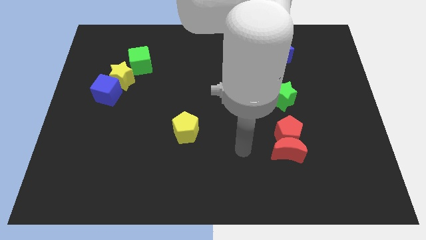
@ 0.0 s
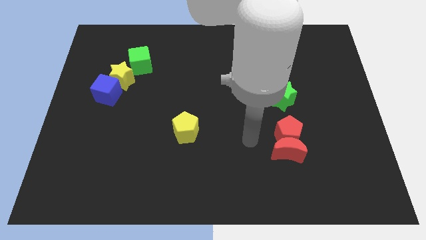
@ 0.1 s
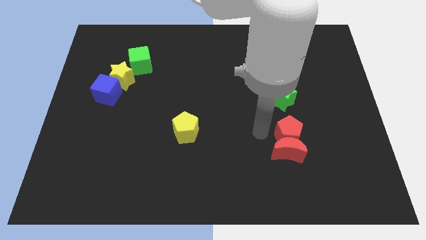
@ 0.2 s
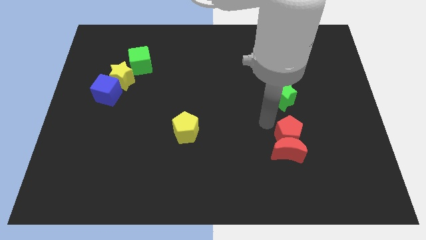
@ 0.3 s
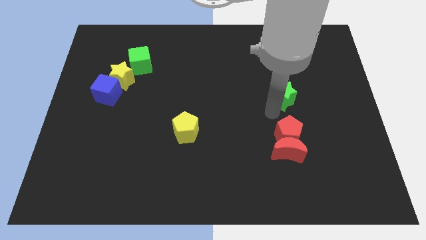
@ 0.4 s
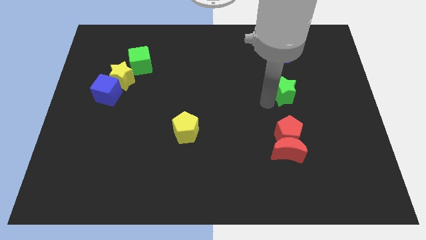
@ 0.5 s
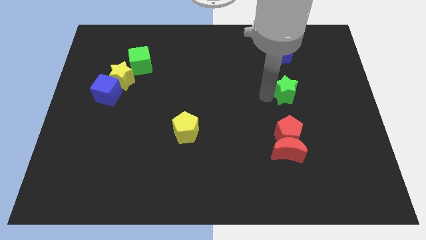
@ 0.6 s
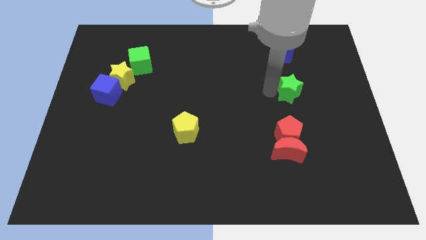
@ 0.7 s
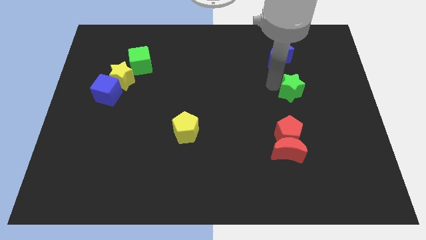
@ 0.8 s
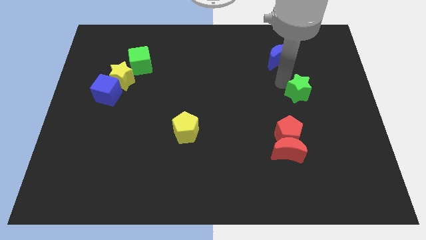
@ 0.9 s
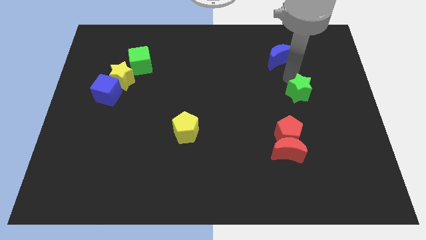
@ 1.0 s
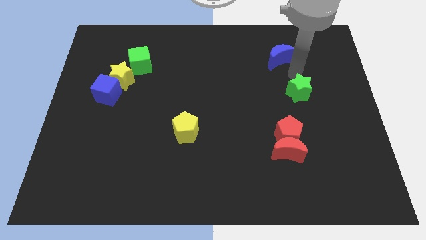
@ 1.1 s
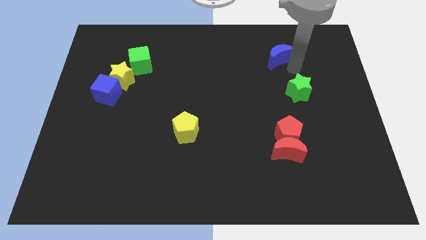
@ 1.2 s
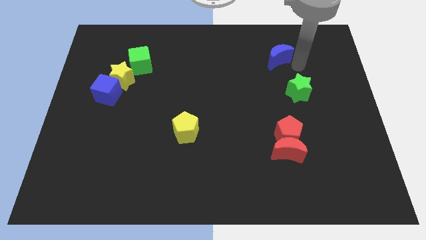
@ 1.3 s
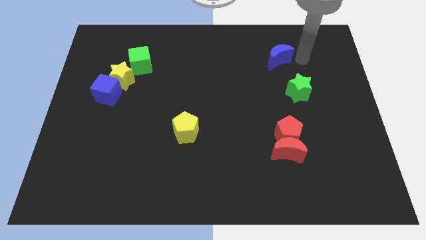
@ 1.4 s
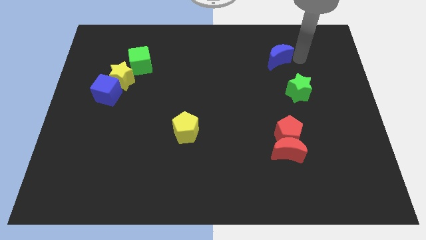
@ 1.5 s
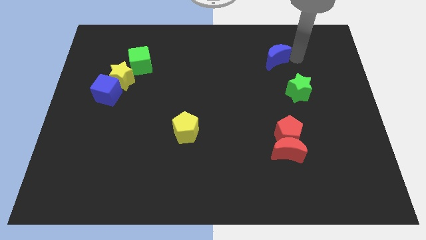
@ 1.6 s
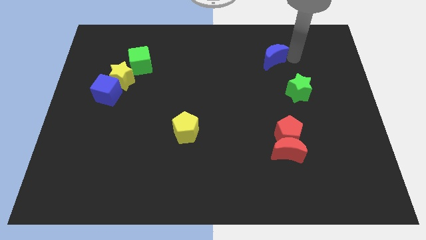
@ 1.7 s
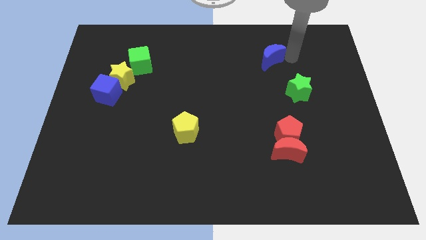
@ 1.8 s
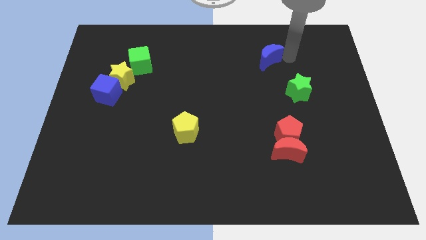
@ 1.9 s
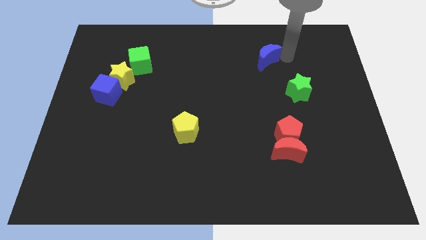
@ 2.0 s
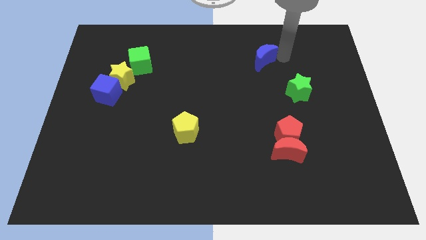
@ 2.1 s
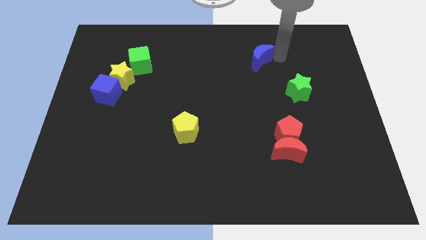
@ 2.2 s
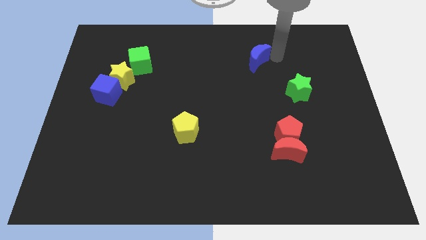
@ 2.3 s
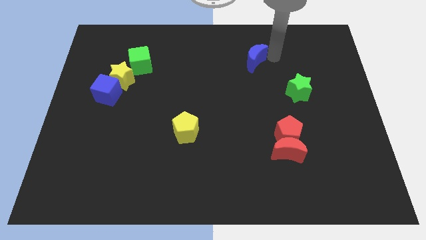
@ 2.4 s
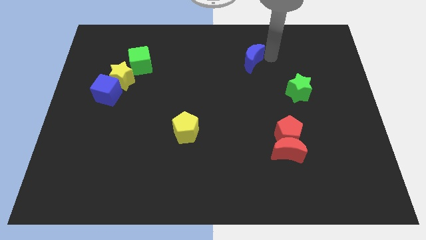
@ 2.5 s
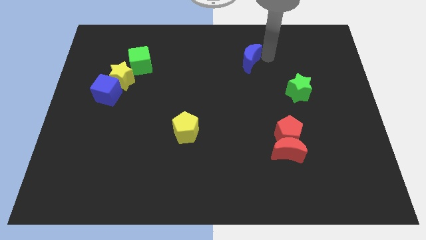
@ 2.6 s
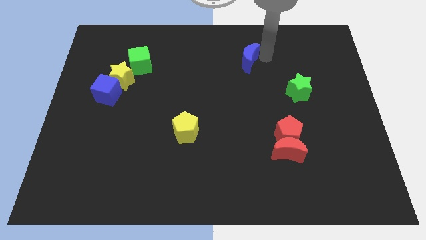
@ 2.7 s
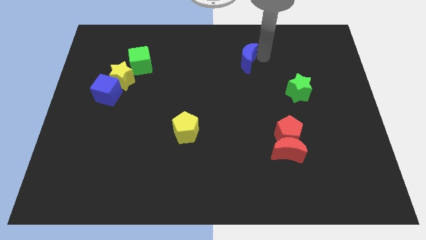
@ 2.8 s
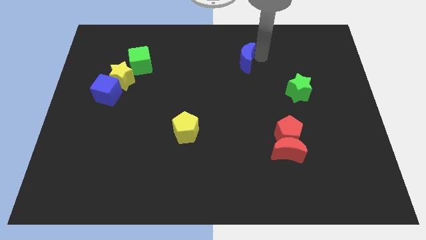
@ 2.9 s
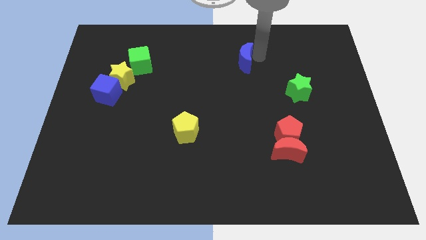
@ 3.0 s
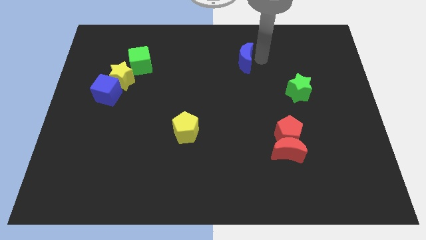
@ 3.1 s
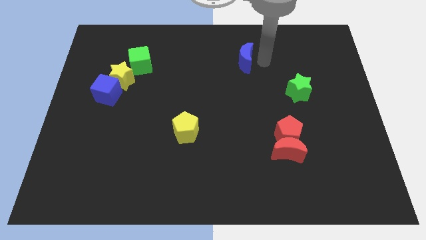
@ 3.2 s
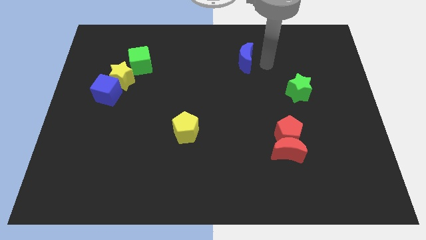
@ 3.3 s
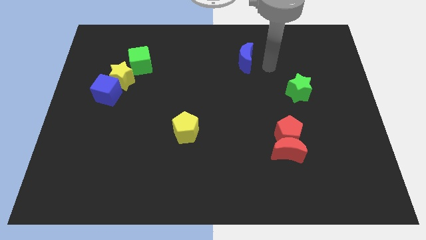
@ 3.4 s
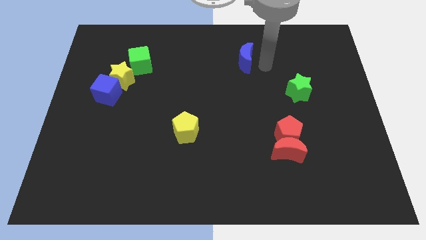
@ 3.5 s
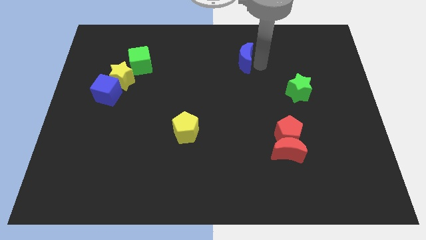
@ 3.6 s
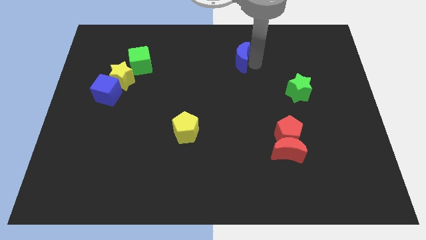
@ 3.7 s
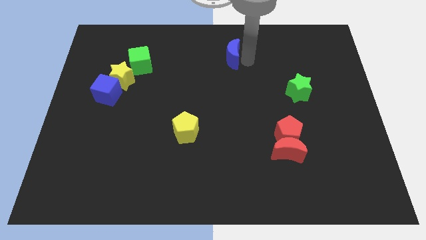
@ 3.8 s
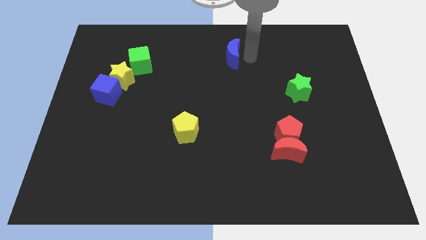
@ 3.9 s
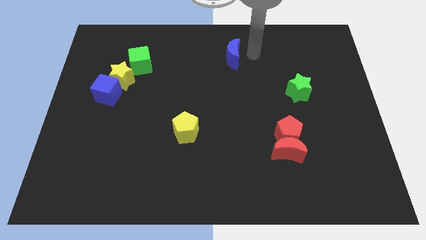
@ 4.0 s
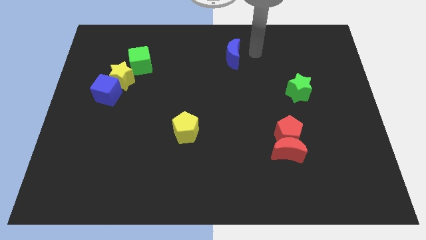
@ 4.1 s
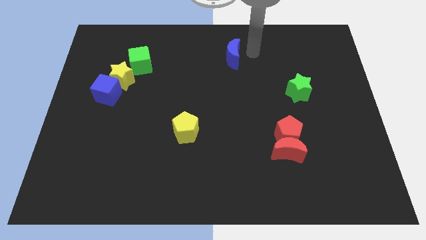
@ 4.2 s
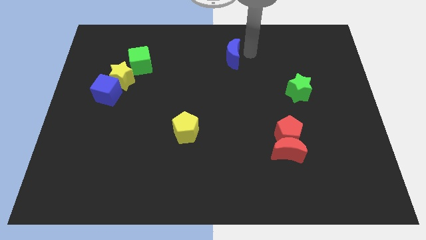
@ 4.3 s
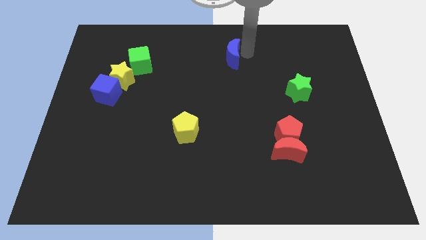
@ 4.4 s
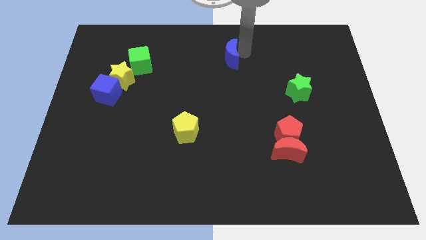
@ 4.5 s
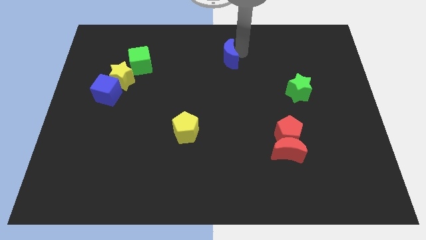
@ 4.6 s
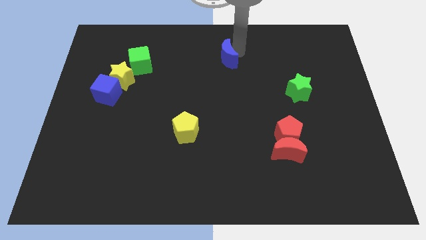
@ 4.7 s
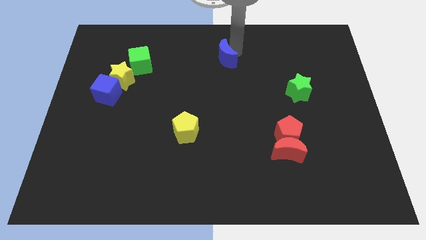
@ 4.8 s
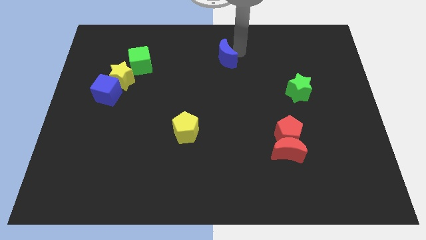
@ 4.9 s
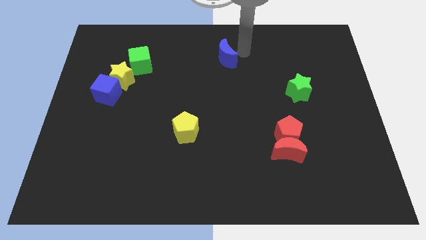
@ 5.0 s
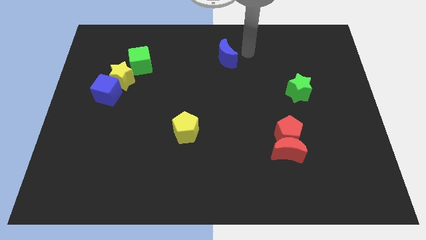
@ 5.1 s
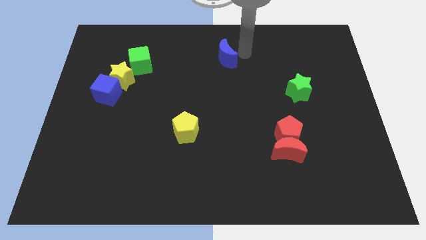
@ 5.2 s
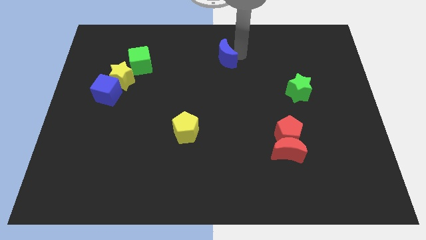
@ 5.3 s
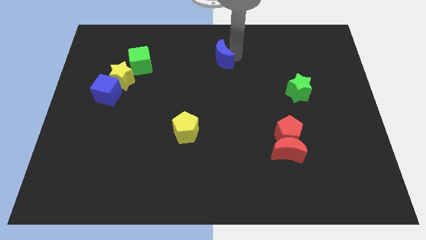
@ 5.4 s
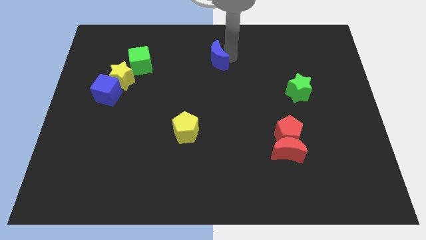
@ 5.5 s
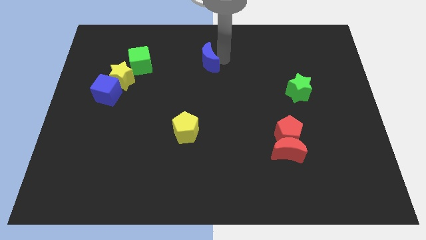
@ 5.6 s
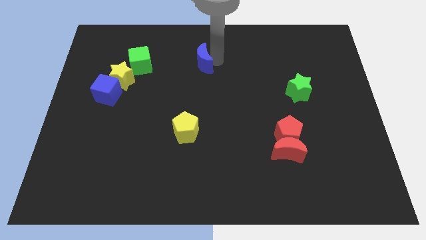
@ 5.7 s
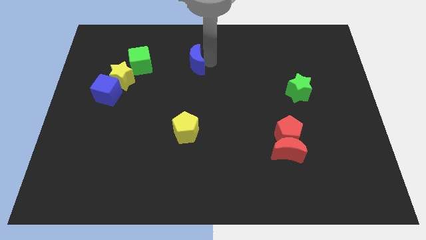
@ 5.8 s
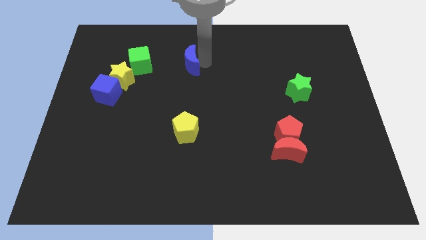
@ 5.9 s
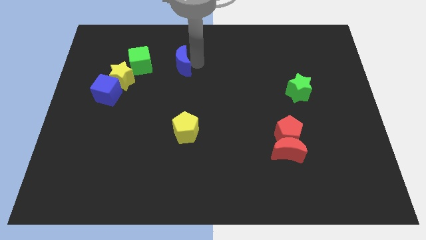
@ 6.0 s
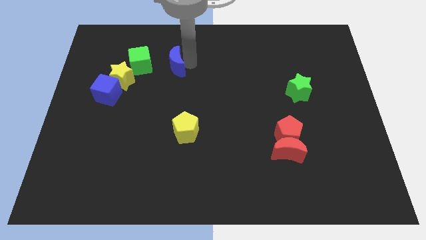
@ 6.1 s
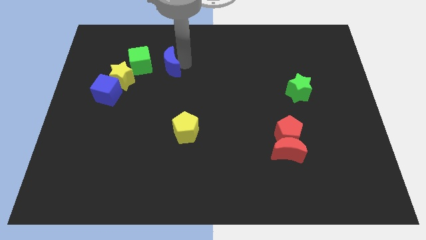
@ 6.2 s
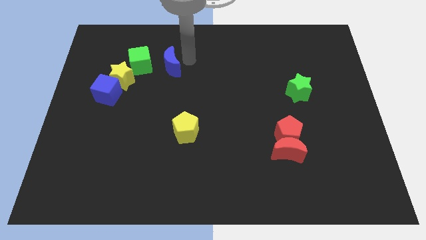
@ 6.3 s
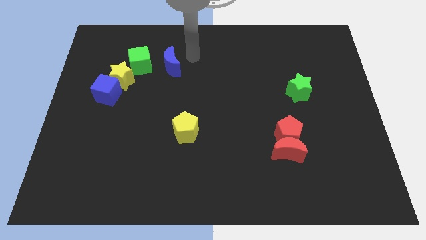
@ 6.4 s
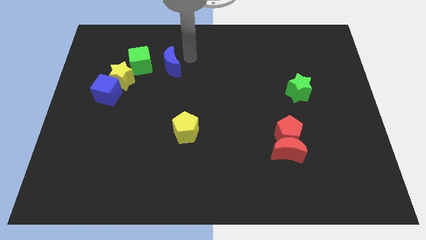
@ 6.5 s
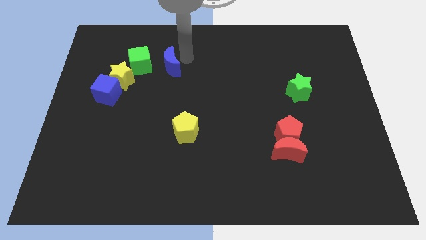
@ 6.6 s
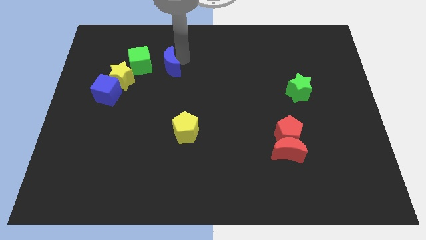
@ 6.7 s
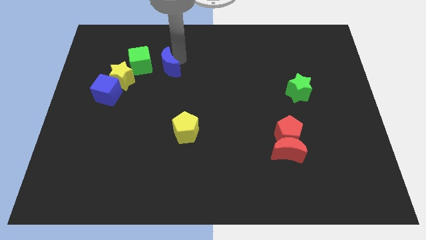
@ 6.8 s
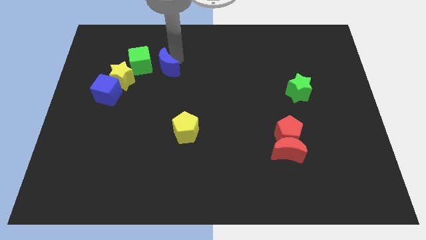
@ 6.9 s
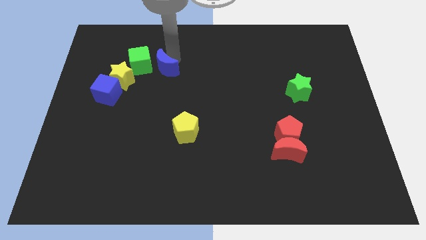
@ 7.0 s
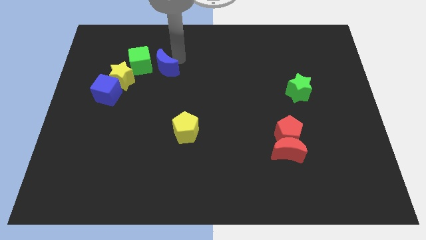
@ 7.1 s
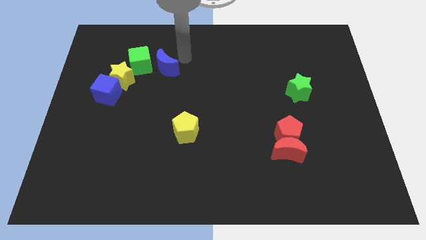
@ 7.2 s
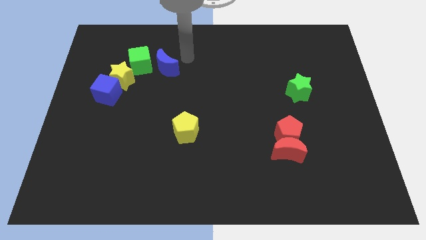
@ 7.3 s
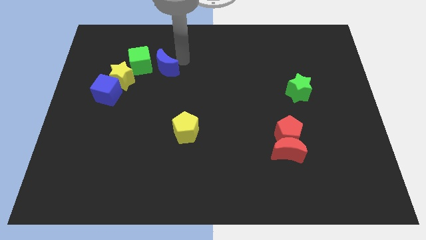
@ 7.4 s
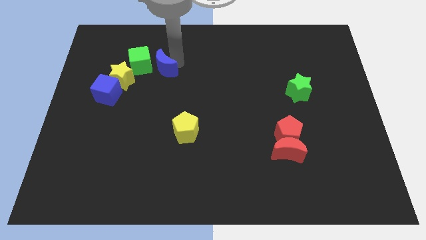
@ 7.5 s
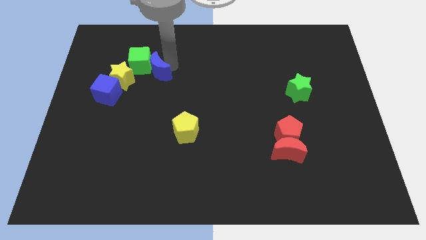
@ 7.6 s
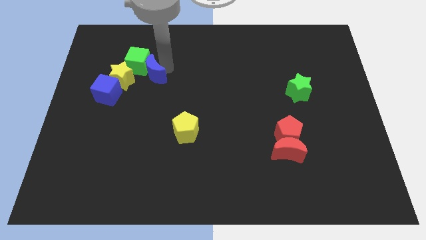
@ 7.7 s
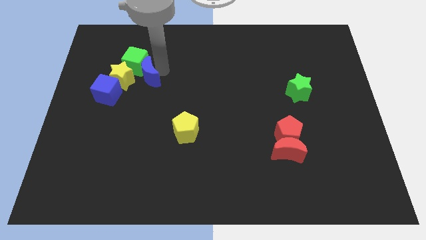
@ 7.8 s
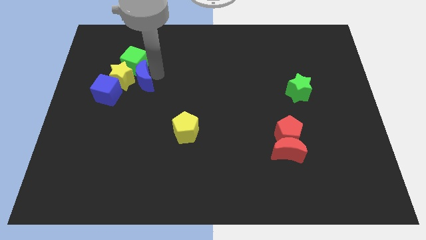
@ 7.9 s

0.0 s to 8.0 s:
push the blue moon close to the yellow star

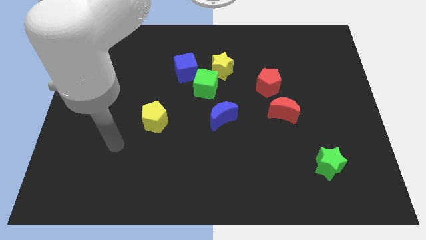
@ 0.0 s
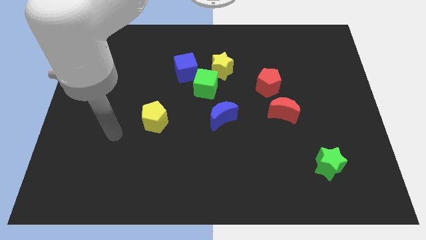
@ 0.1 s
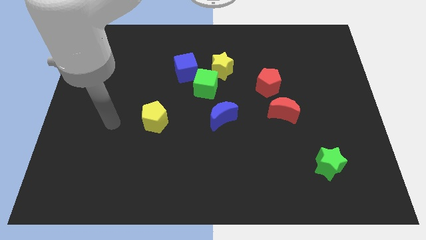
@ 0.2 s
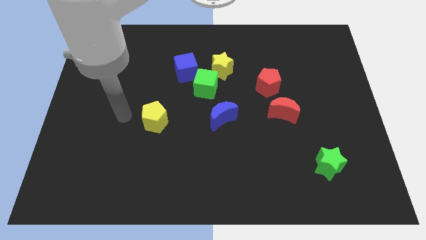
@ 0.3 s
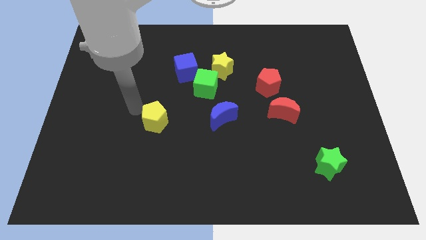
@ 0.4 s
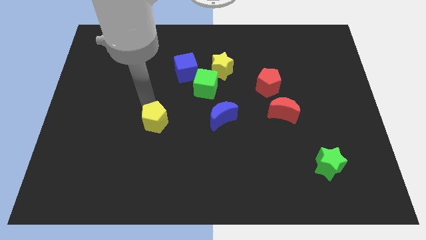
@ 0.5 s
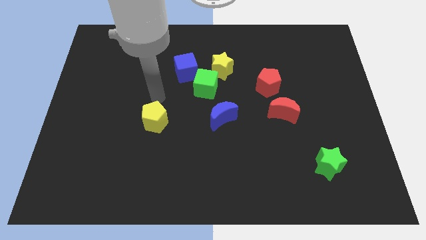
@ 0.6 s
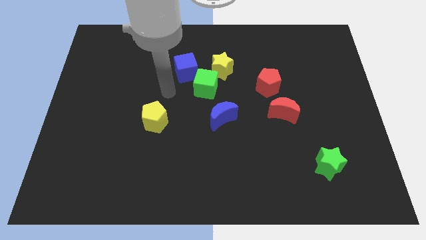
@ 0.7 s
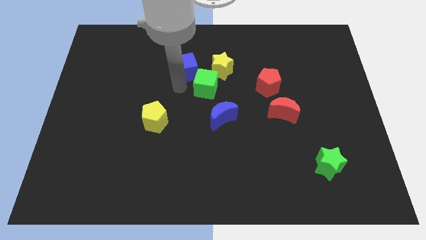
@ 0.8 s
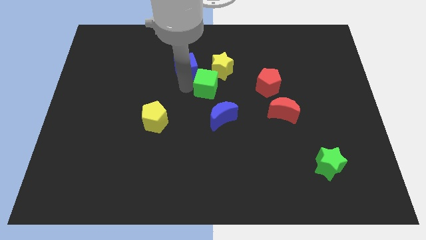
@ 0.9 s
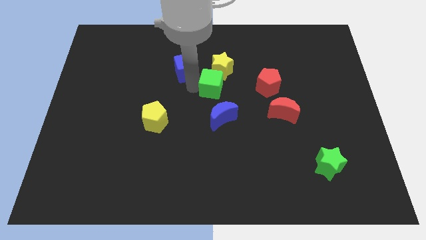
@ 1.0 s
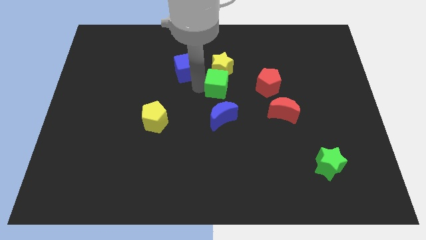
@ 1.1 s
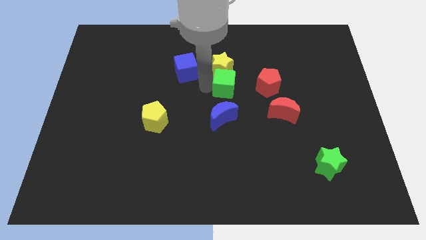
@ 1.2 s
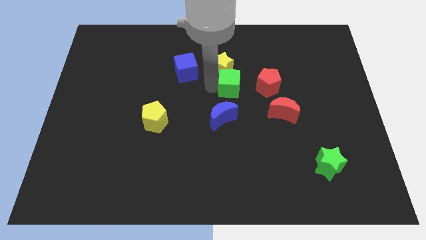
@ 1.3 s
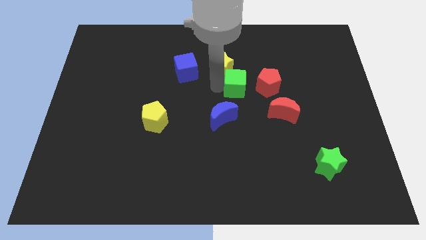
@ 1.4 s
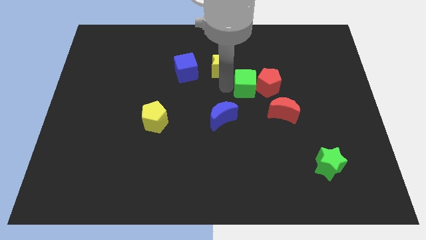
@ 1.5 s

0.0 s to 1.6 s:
move the green cube close to the red pentagon
